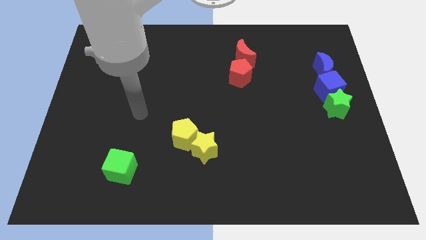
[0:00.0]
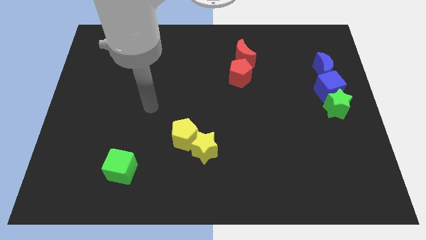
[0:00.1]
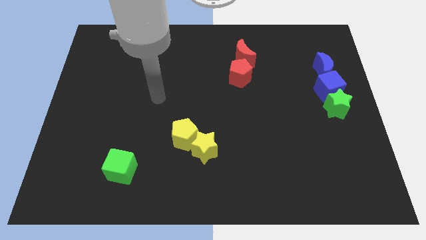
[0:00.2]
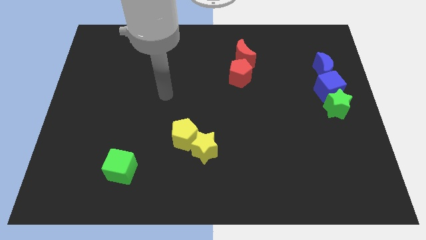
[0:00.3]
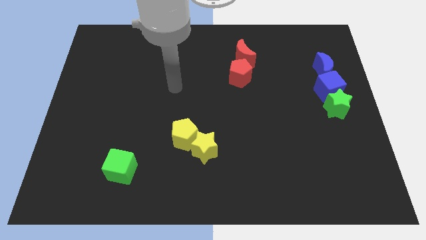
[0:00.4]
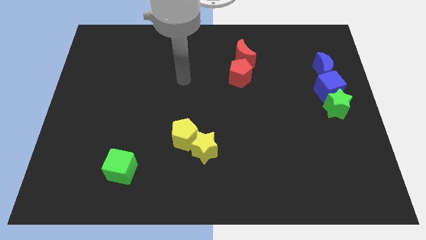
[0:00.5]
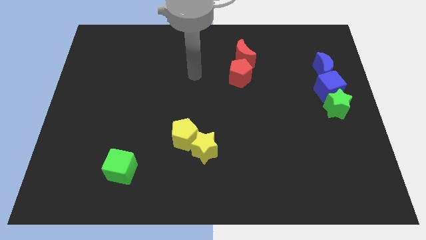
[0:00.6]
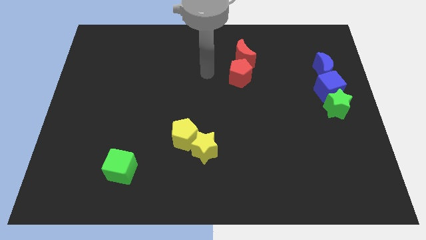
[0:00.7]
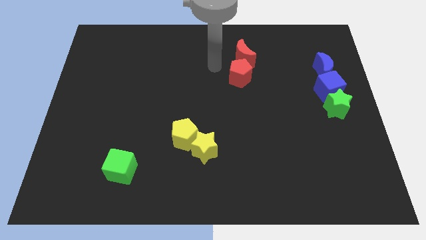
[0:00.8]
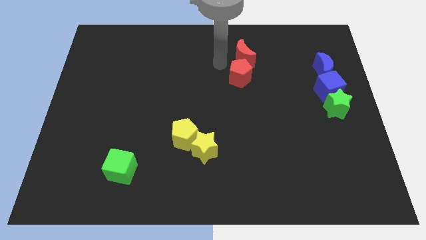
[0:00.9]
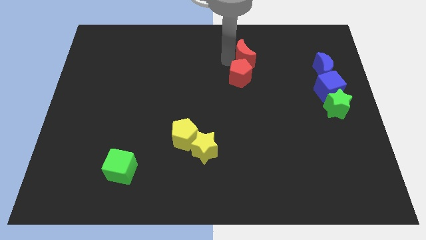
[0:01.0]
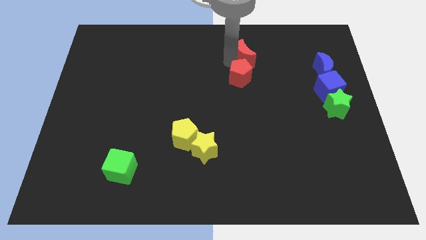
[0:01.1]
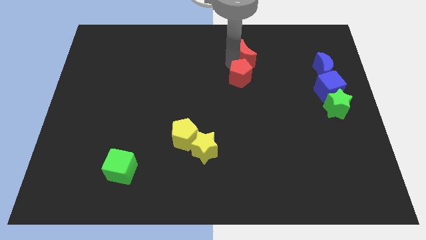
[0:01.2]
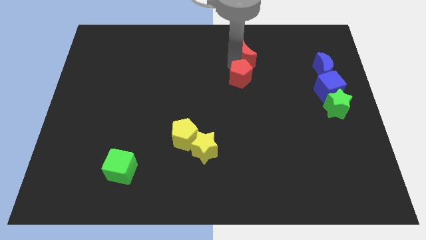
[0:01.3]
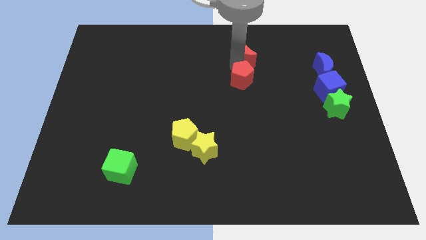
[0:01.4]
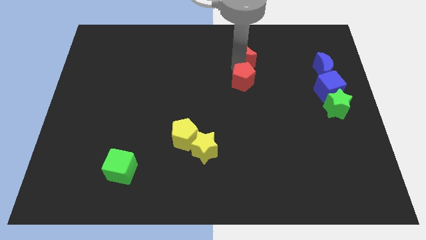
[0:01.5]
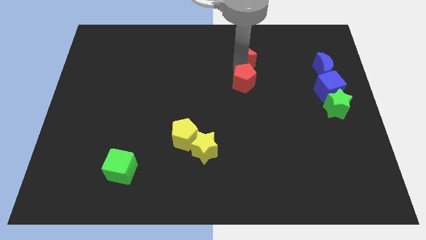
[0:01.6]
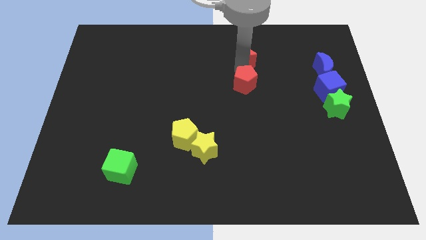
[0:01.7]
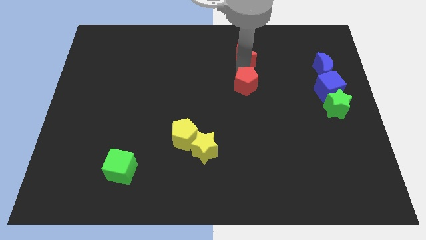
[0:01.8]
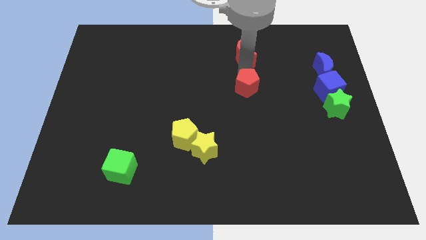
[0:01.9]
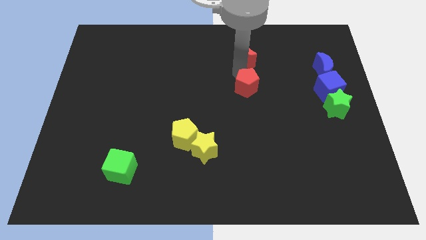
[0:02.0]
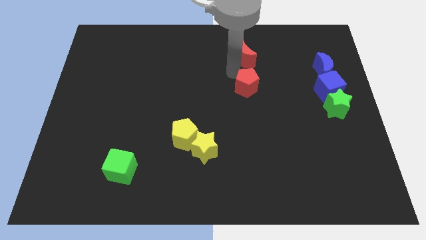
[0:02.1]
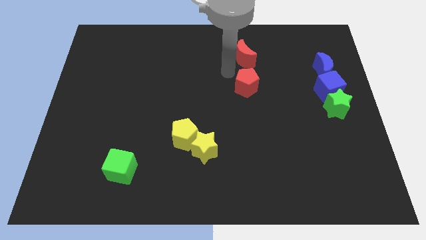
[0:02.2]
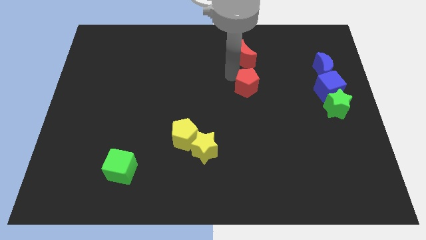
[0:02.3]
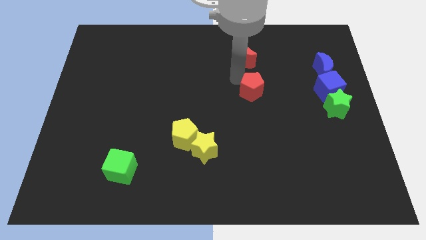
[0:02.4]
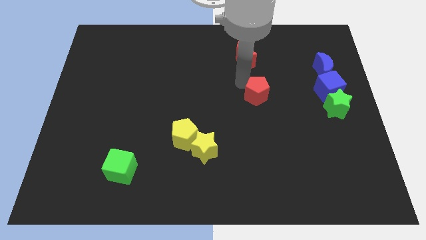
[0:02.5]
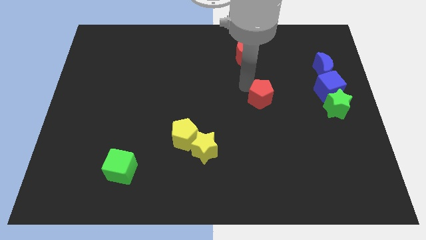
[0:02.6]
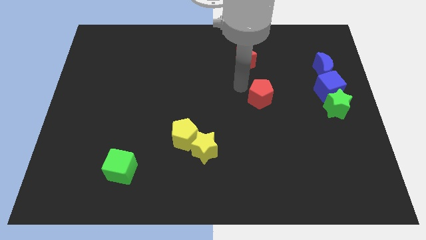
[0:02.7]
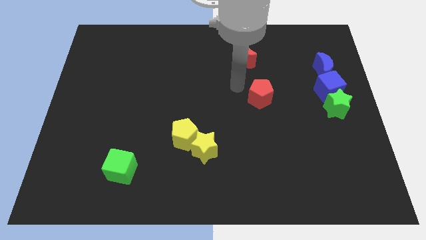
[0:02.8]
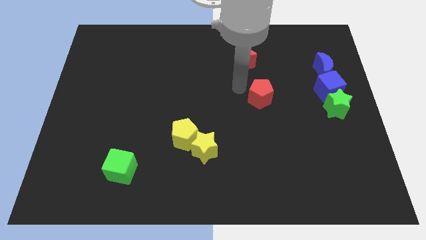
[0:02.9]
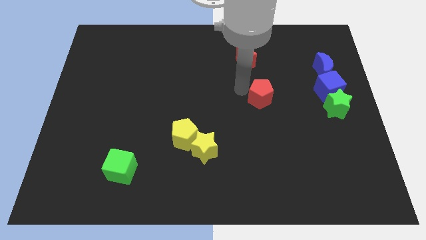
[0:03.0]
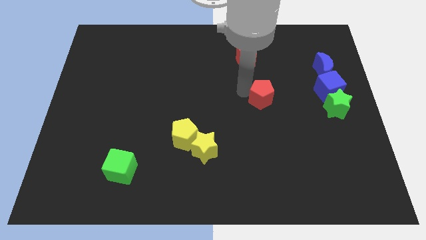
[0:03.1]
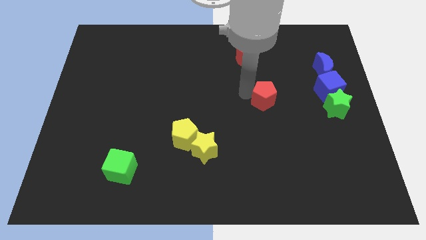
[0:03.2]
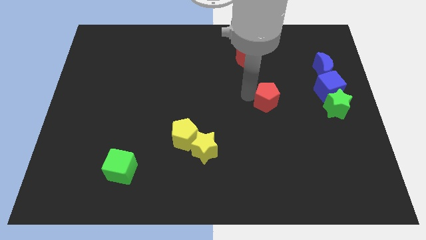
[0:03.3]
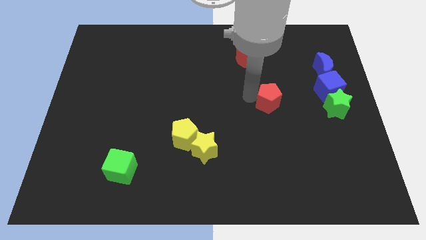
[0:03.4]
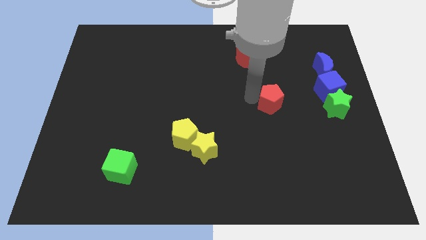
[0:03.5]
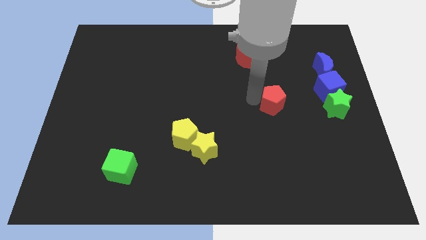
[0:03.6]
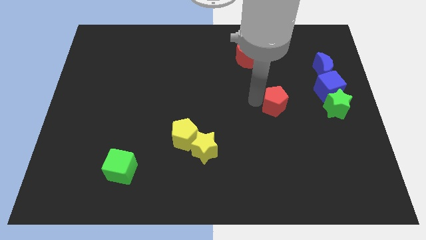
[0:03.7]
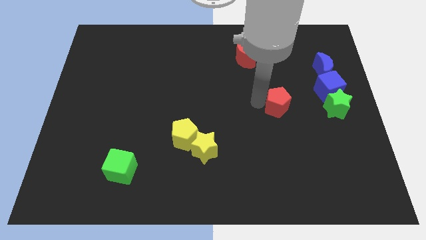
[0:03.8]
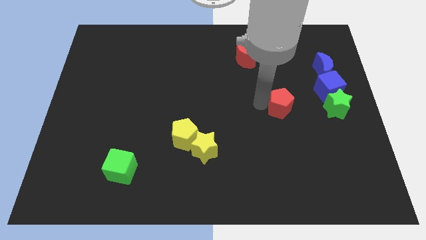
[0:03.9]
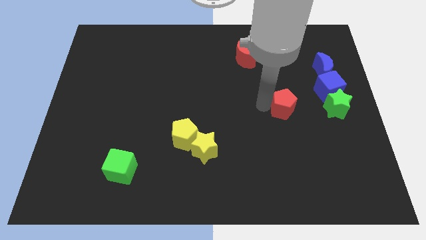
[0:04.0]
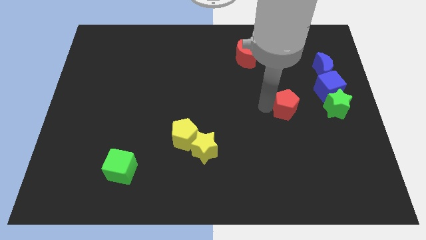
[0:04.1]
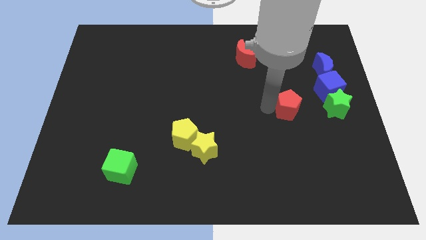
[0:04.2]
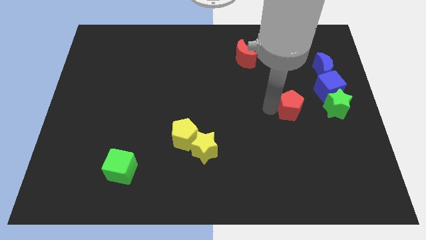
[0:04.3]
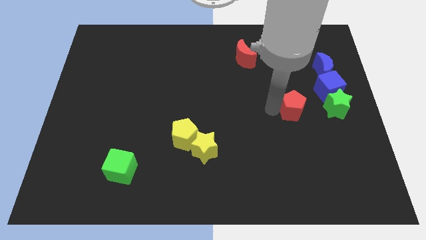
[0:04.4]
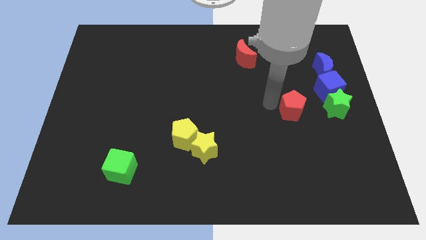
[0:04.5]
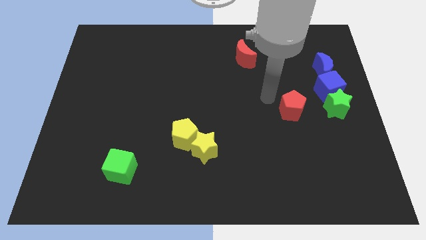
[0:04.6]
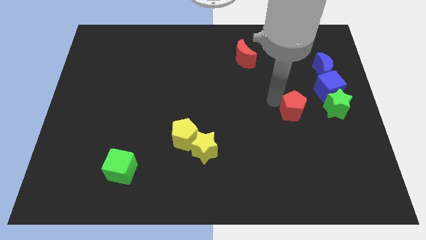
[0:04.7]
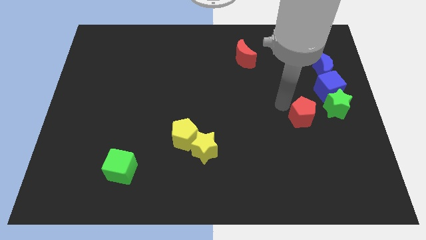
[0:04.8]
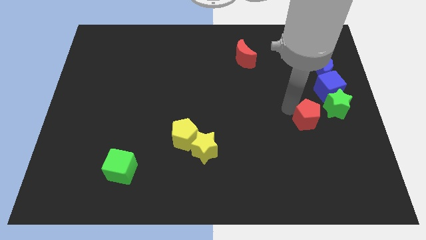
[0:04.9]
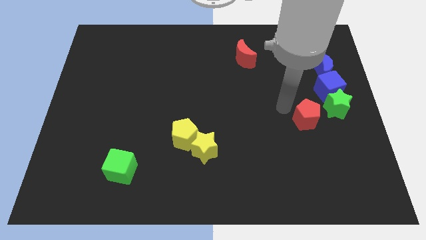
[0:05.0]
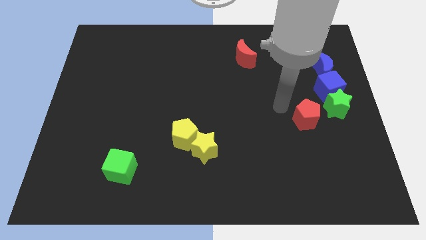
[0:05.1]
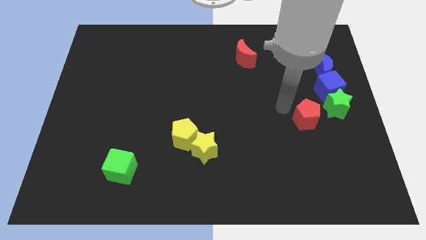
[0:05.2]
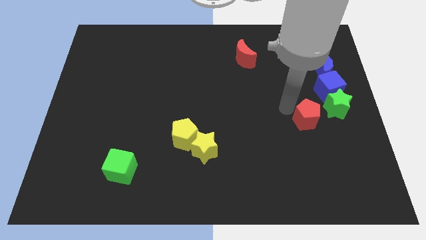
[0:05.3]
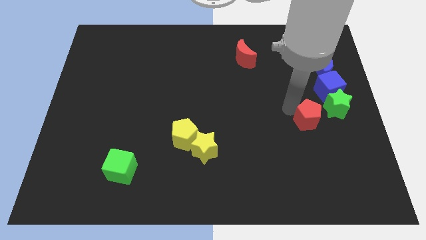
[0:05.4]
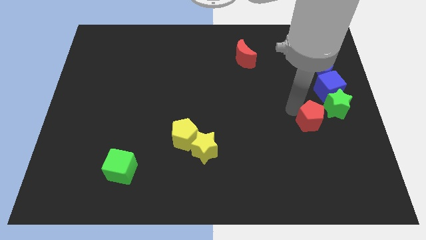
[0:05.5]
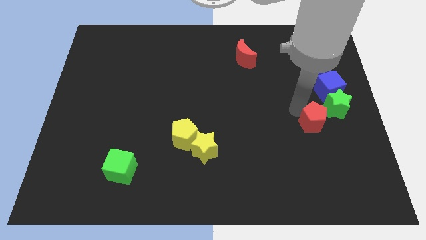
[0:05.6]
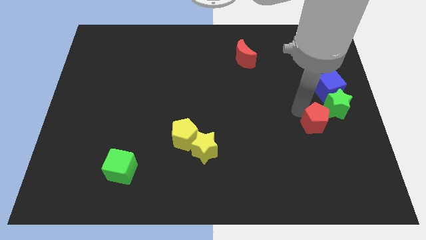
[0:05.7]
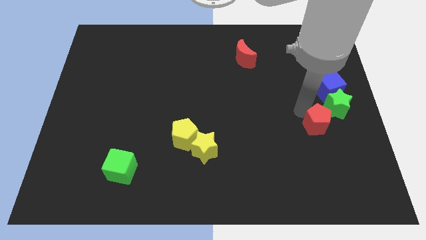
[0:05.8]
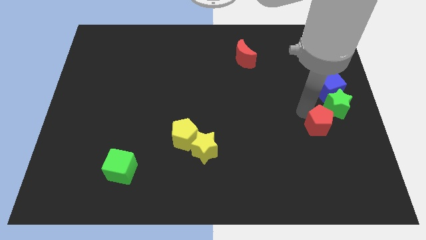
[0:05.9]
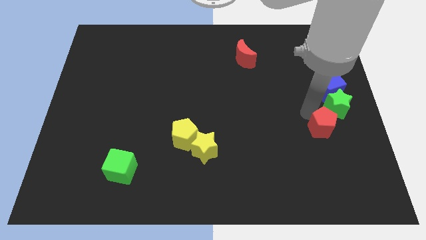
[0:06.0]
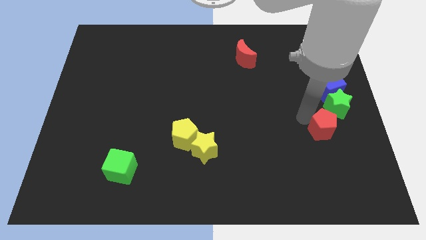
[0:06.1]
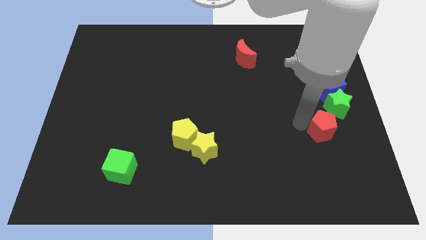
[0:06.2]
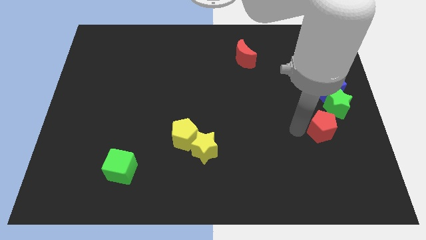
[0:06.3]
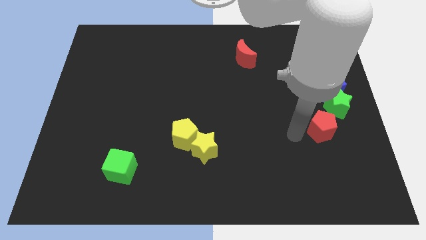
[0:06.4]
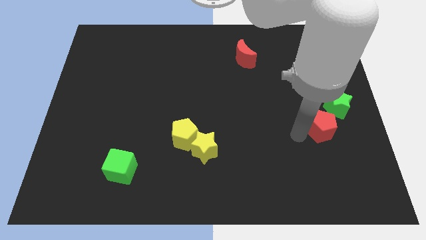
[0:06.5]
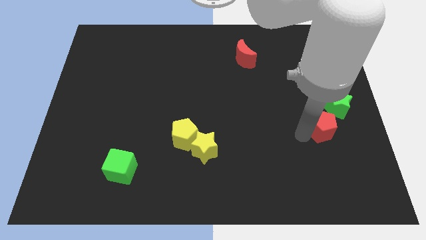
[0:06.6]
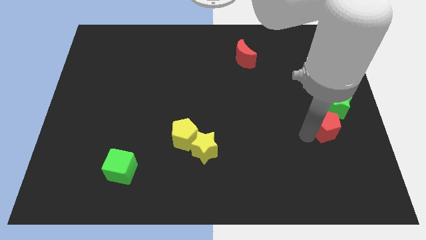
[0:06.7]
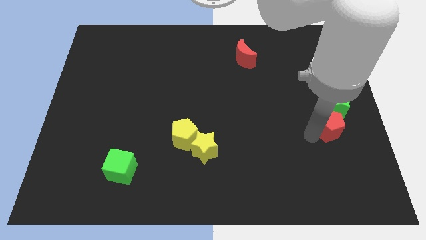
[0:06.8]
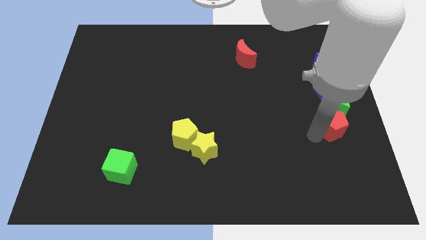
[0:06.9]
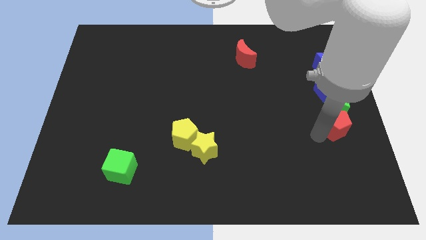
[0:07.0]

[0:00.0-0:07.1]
put the red pentagon to the right side of the board
